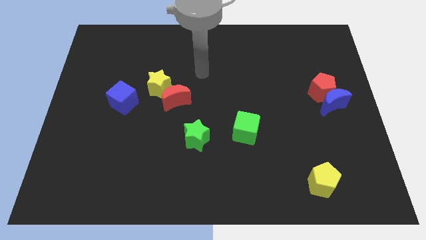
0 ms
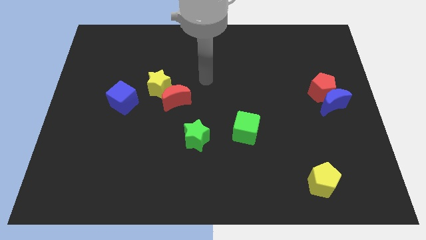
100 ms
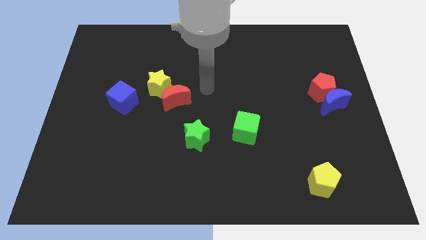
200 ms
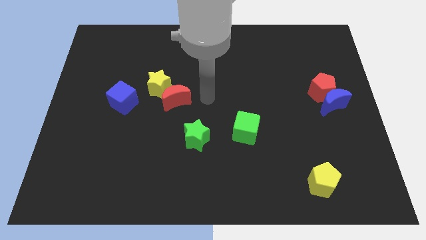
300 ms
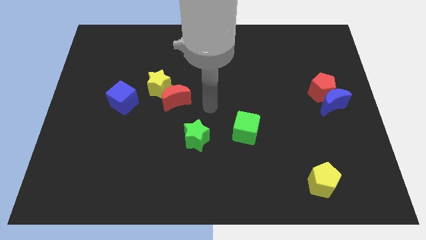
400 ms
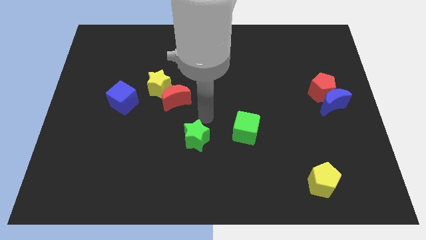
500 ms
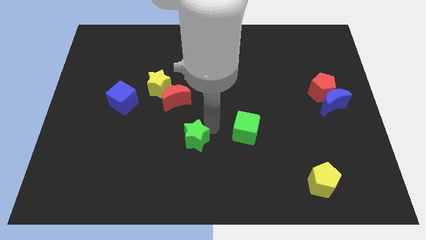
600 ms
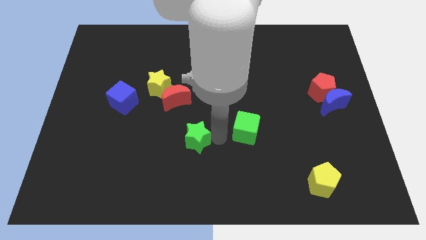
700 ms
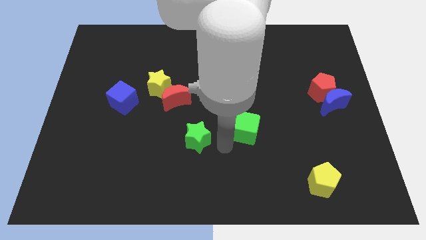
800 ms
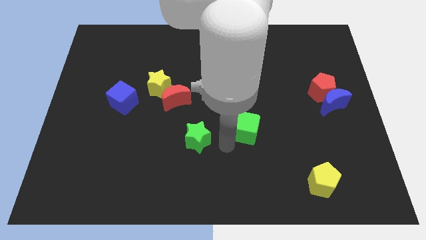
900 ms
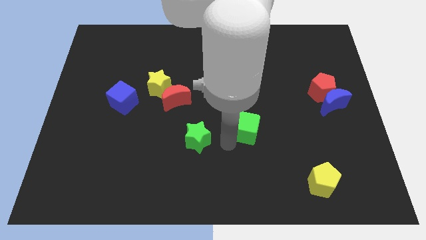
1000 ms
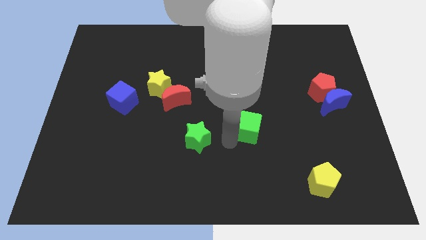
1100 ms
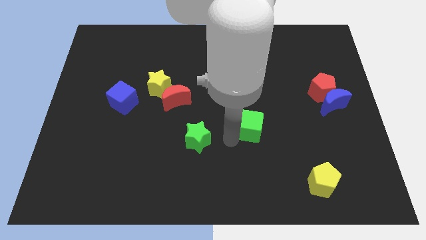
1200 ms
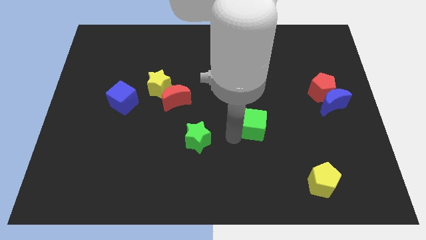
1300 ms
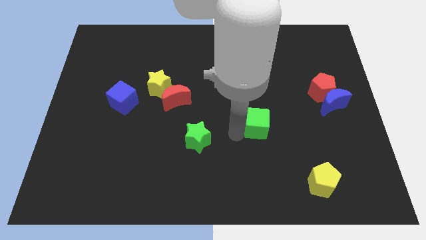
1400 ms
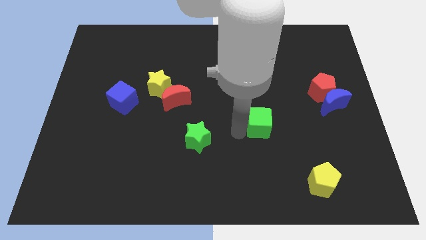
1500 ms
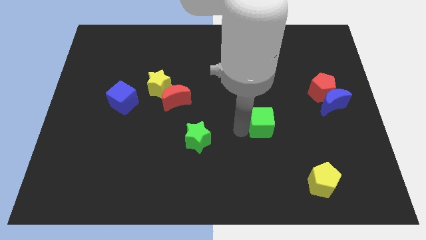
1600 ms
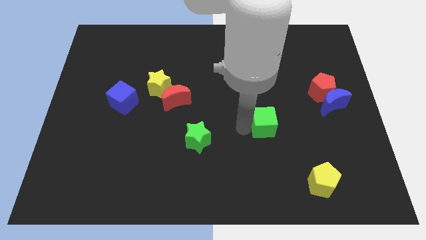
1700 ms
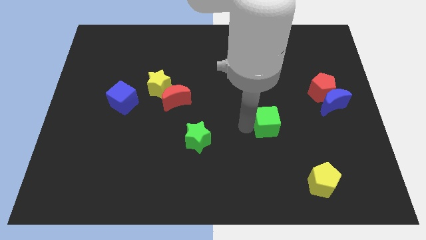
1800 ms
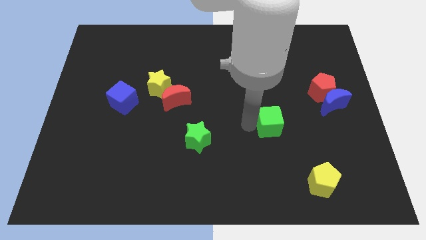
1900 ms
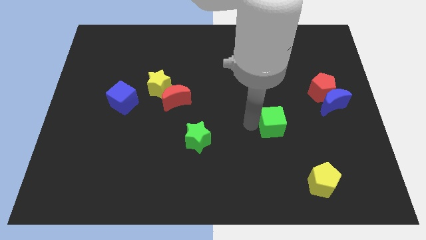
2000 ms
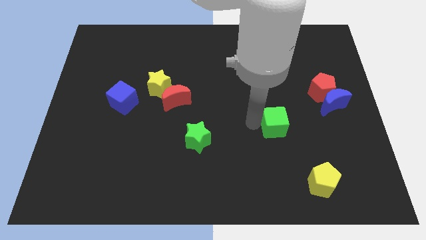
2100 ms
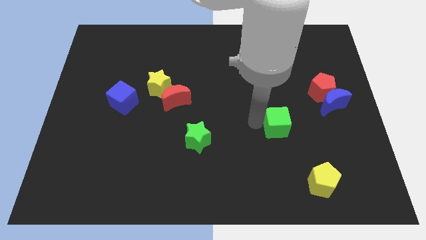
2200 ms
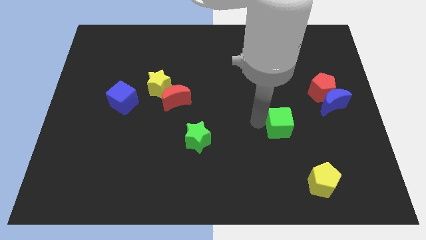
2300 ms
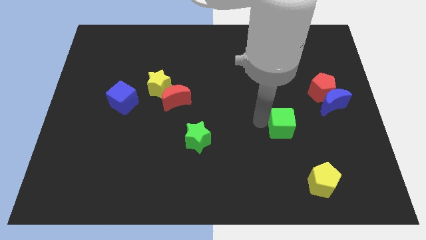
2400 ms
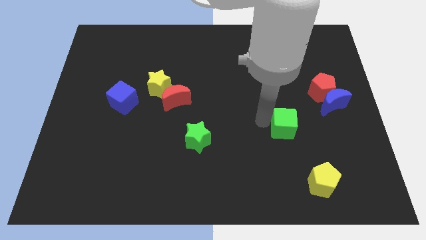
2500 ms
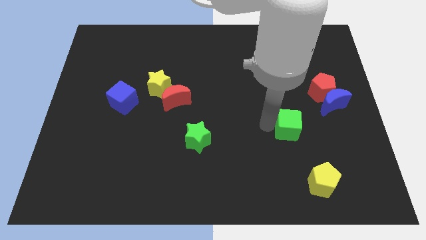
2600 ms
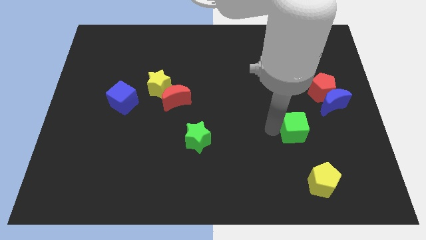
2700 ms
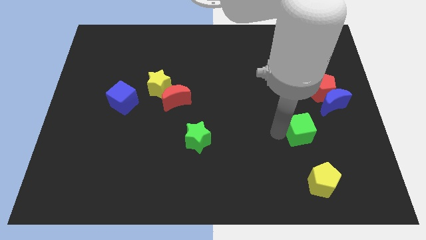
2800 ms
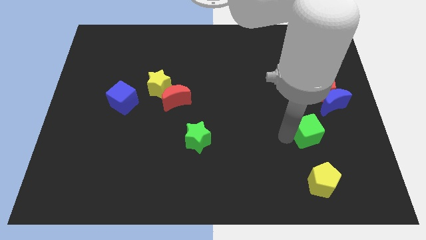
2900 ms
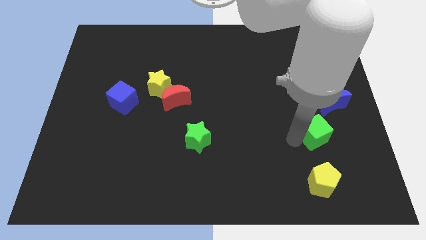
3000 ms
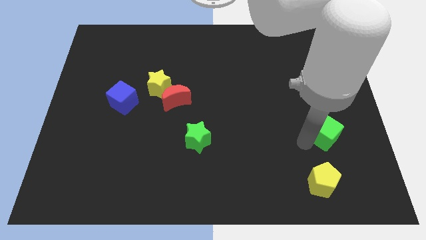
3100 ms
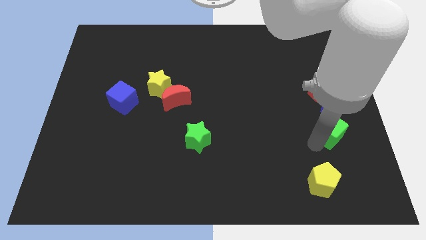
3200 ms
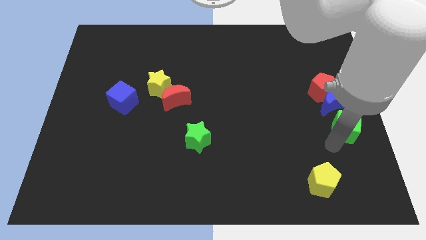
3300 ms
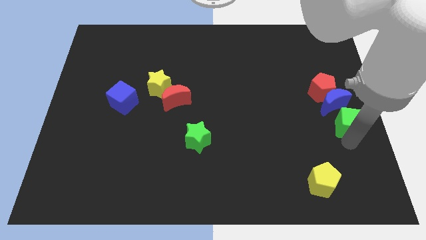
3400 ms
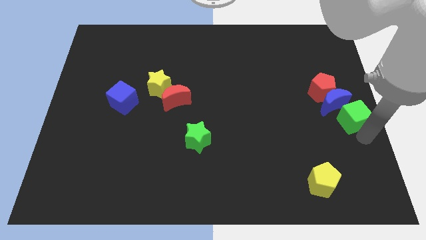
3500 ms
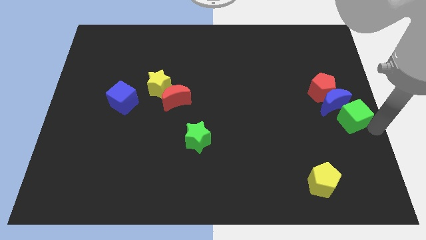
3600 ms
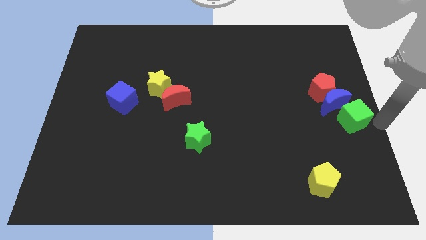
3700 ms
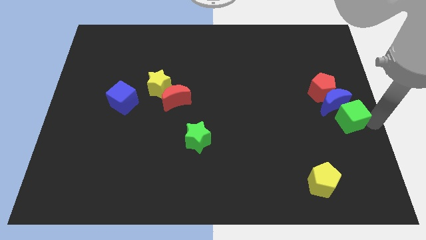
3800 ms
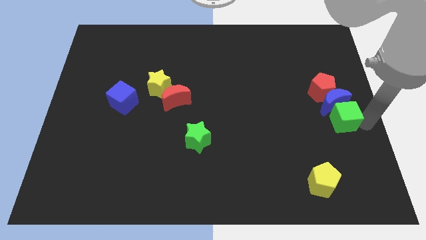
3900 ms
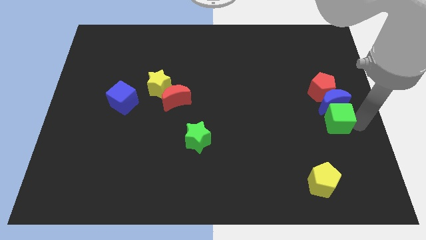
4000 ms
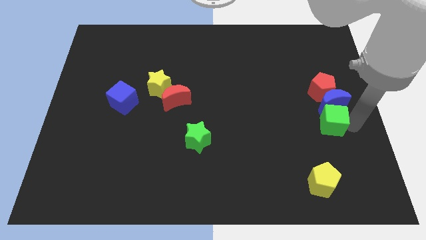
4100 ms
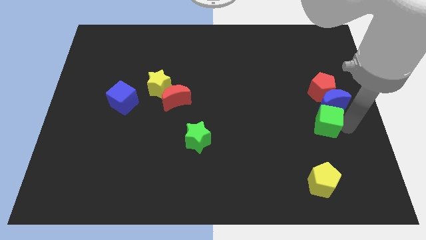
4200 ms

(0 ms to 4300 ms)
slide the green cube up and to the right diagonally a little

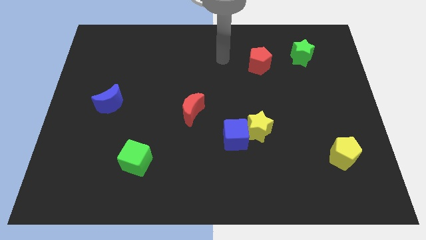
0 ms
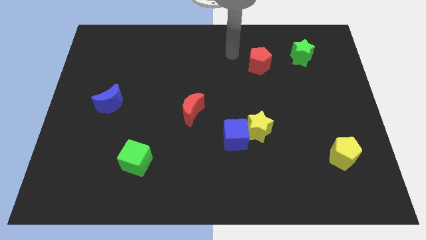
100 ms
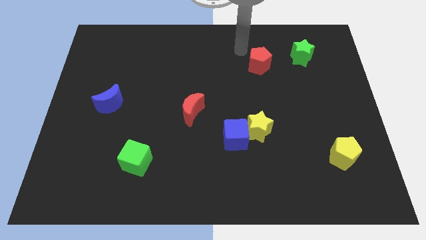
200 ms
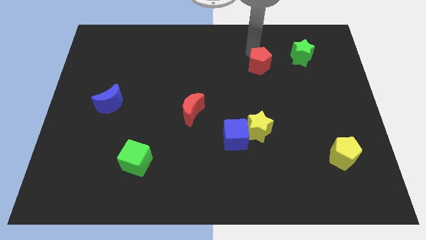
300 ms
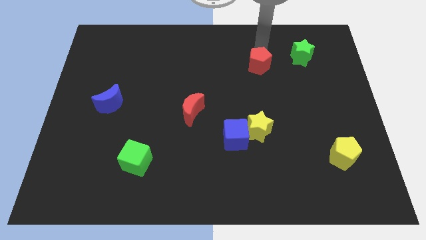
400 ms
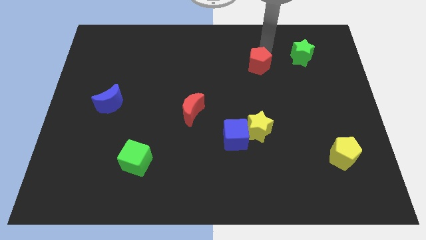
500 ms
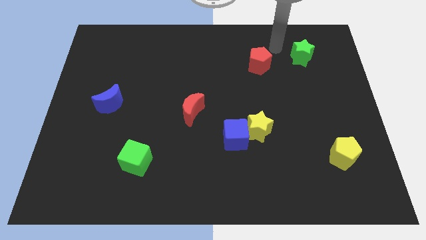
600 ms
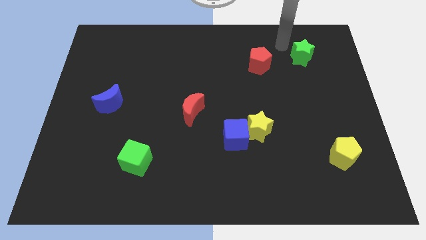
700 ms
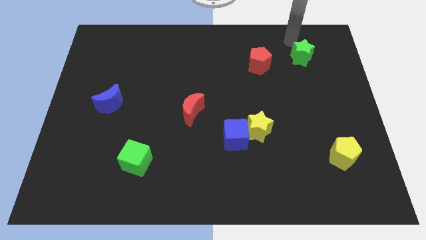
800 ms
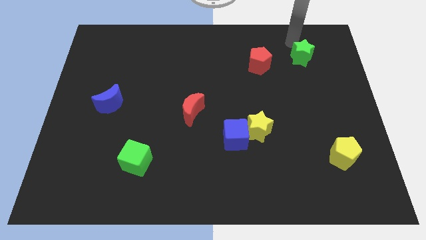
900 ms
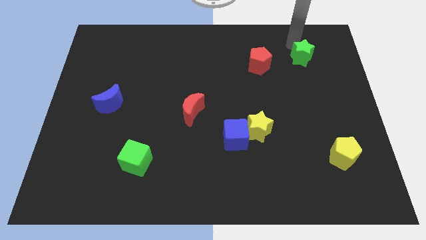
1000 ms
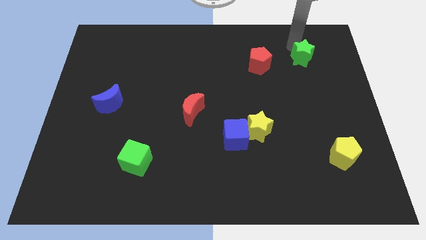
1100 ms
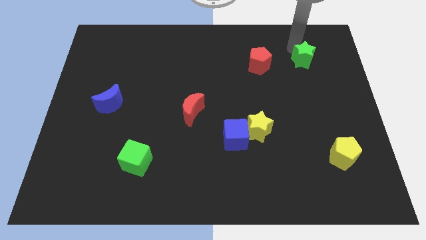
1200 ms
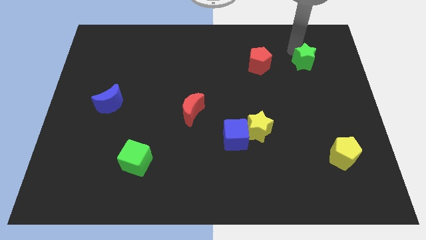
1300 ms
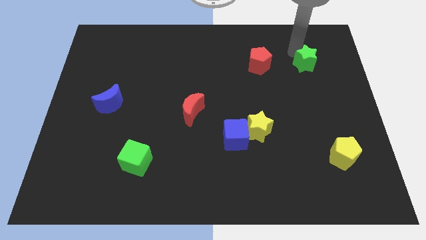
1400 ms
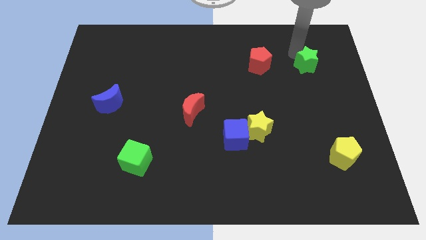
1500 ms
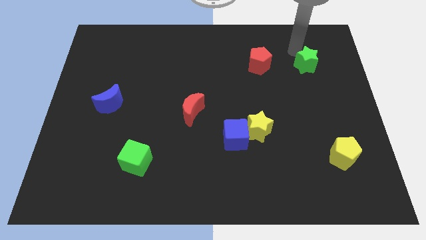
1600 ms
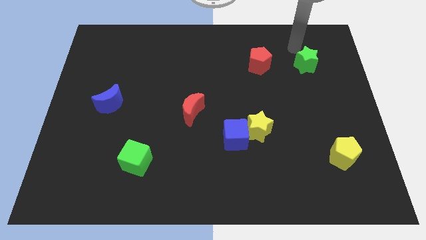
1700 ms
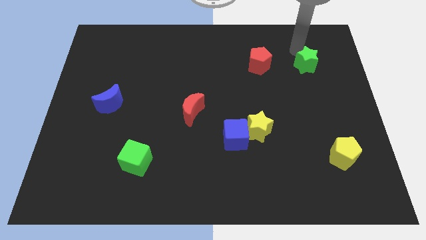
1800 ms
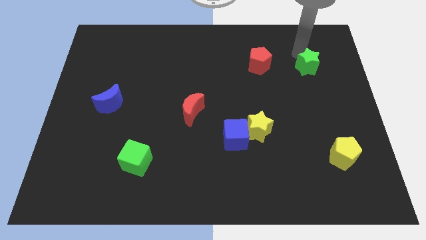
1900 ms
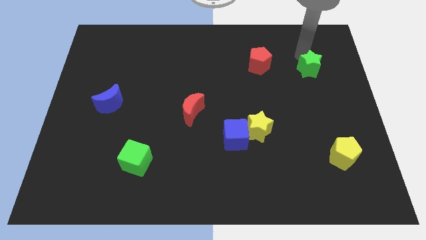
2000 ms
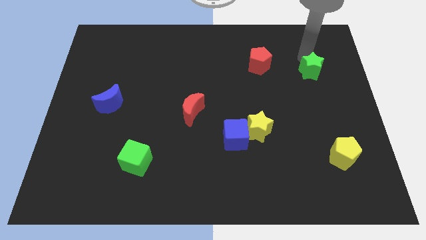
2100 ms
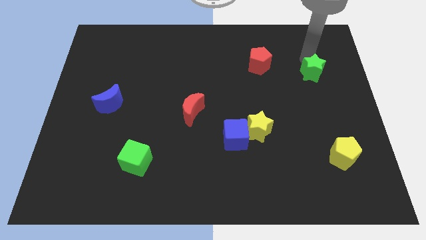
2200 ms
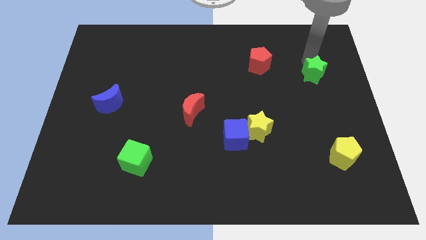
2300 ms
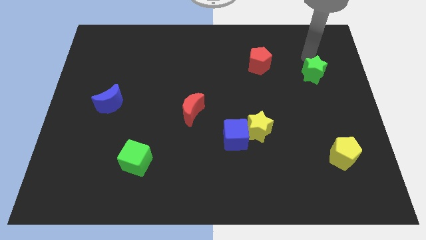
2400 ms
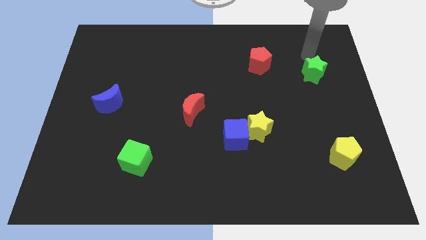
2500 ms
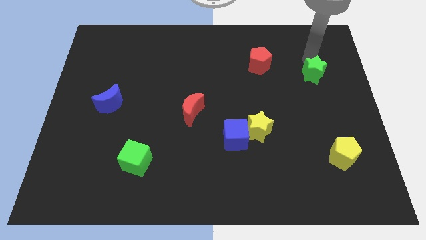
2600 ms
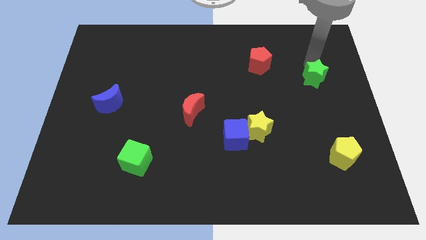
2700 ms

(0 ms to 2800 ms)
slide the green star down a little

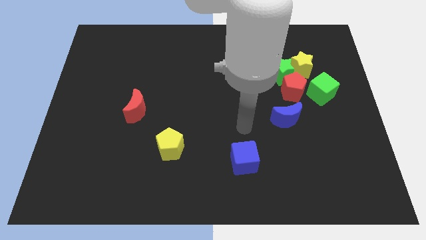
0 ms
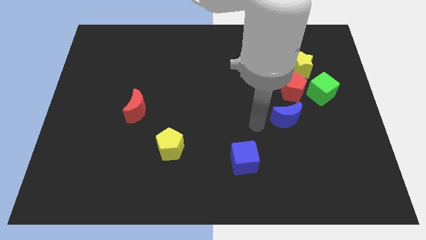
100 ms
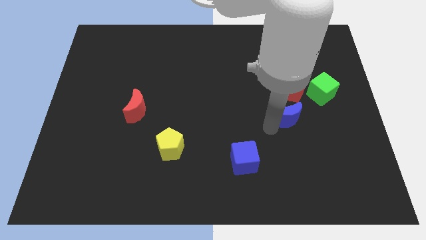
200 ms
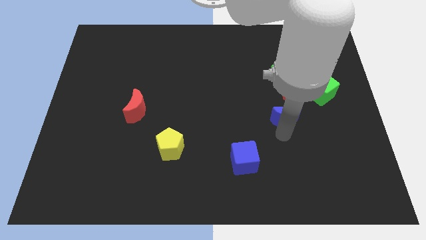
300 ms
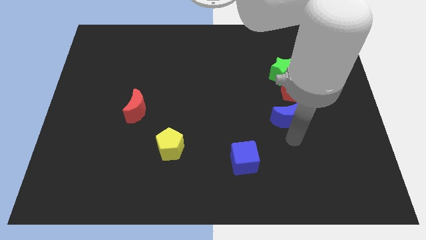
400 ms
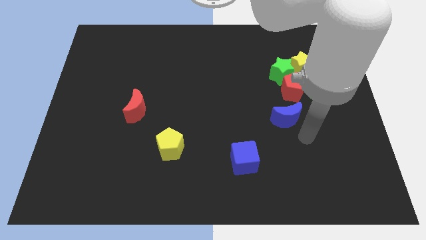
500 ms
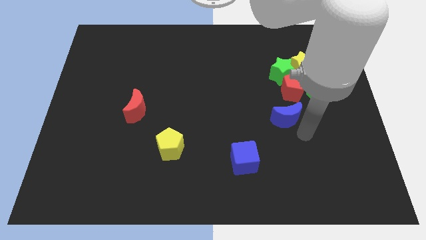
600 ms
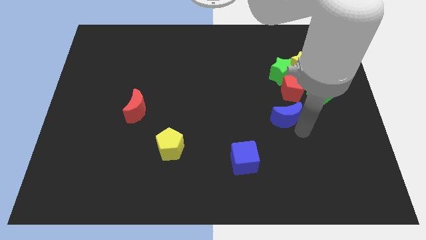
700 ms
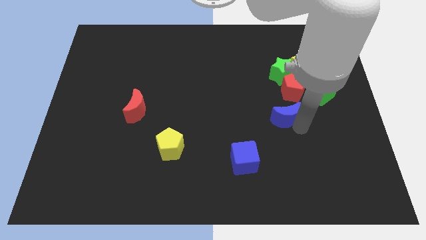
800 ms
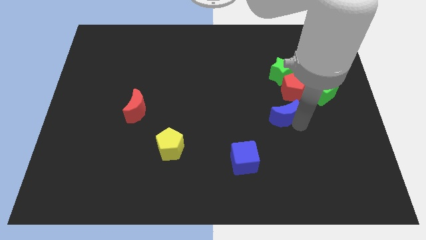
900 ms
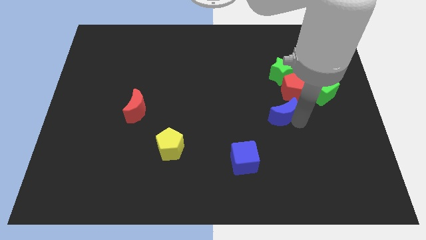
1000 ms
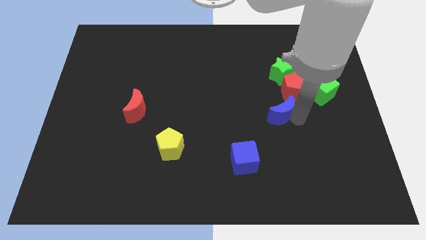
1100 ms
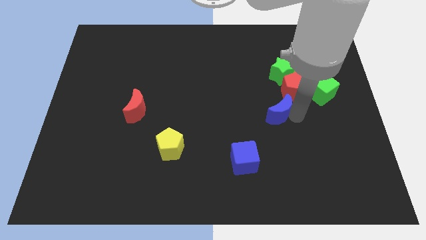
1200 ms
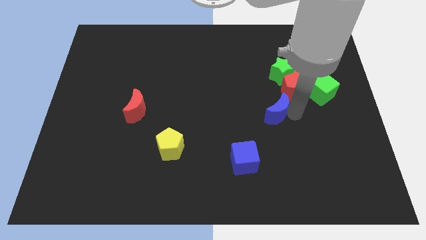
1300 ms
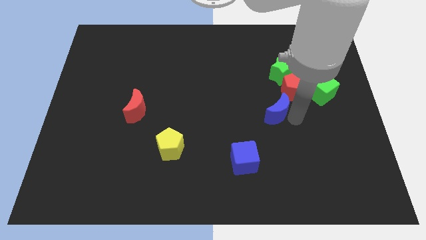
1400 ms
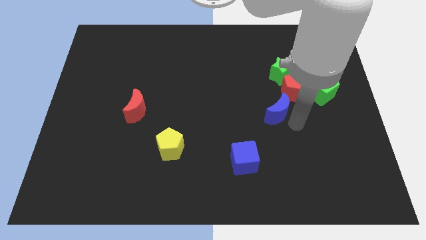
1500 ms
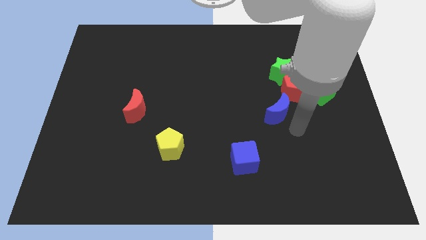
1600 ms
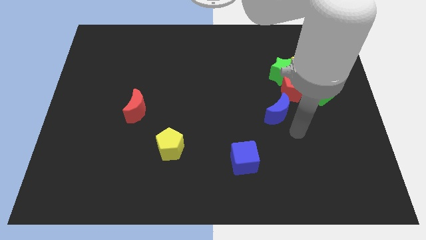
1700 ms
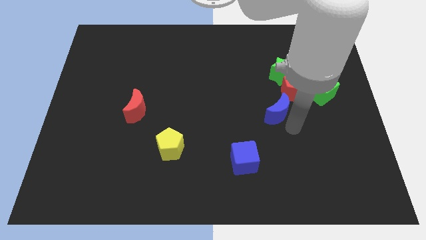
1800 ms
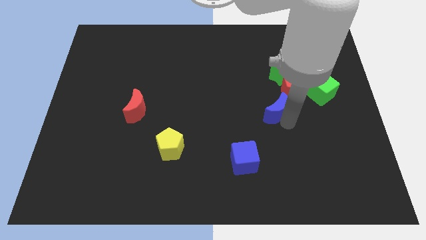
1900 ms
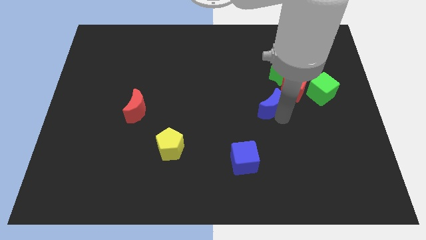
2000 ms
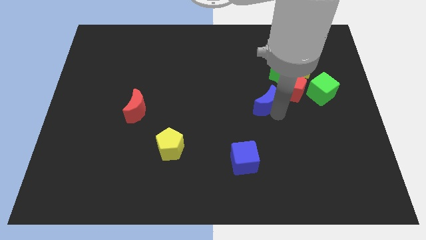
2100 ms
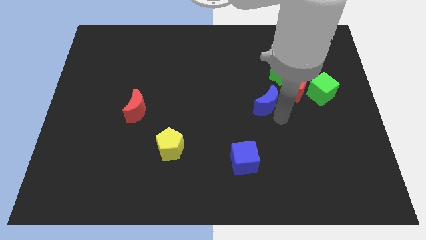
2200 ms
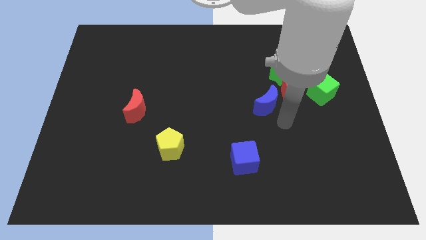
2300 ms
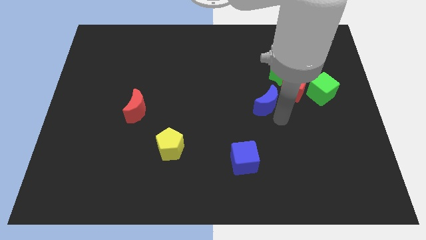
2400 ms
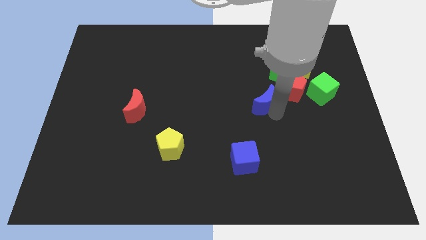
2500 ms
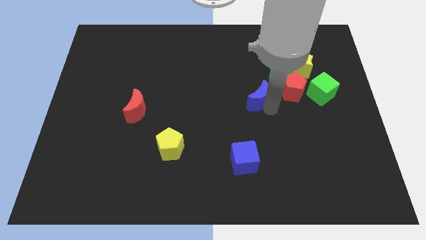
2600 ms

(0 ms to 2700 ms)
push the blue moon up and then left somewhat
